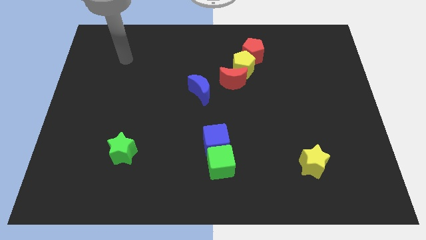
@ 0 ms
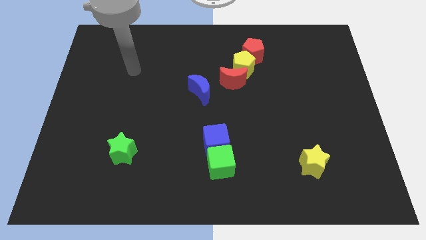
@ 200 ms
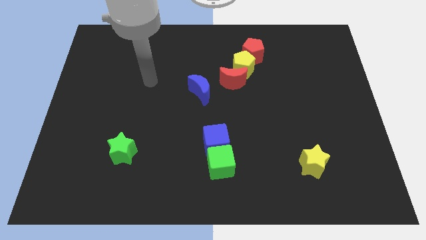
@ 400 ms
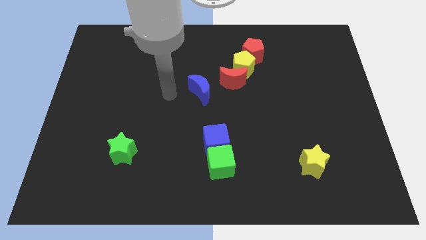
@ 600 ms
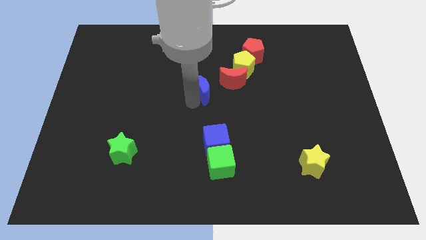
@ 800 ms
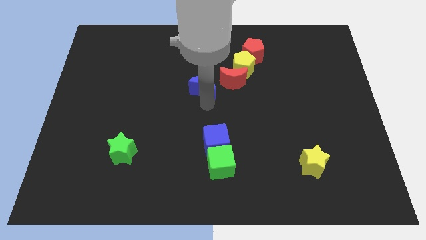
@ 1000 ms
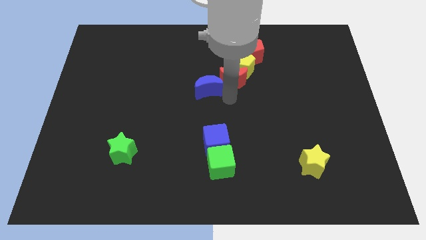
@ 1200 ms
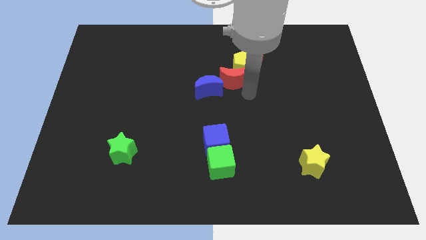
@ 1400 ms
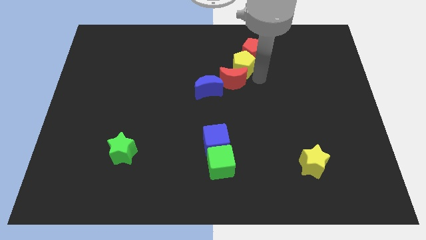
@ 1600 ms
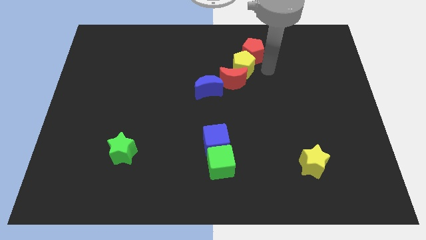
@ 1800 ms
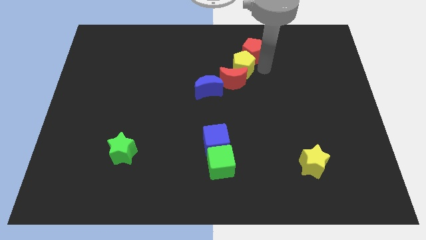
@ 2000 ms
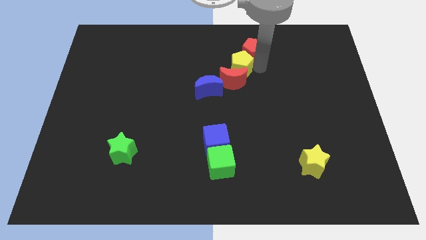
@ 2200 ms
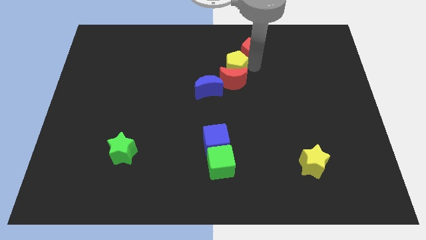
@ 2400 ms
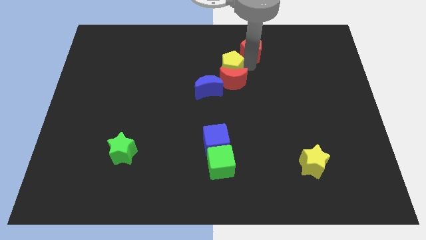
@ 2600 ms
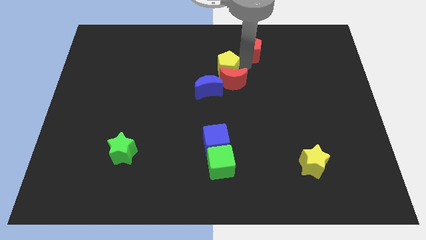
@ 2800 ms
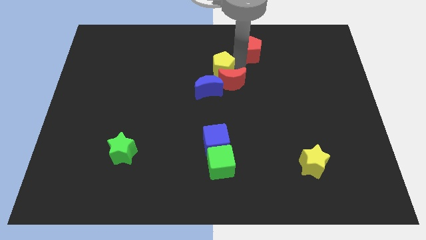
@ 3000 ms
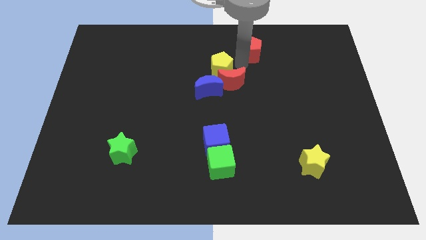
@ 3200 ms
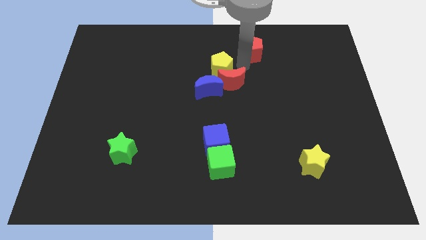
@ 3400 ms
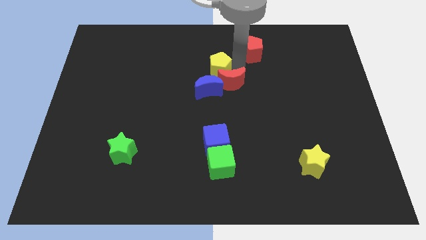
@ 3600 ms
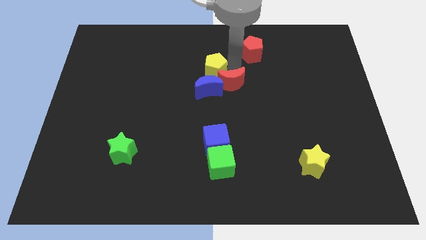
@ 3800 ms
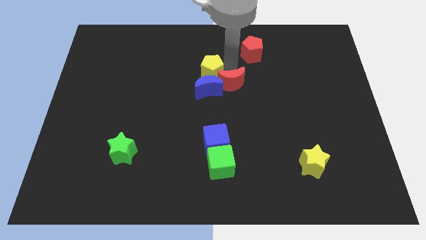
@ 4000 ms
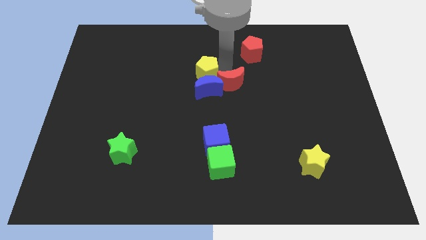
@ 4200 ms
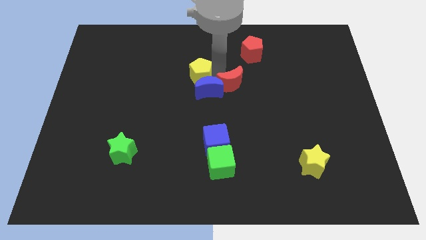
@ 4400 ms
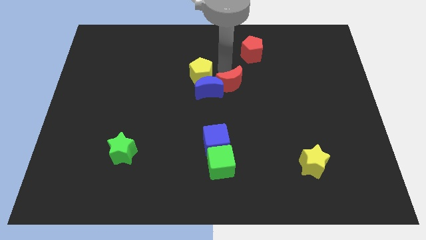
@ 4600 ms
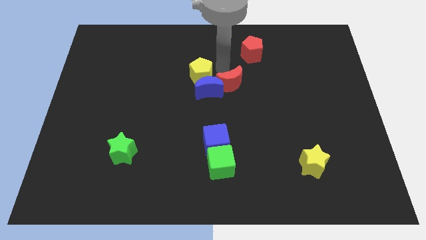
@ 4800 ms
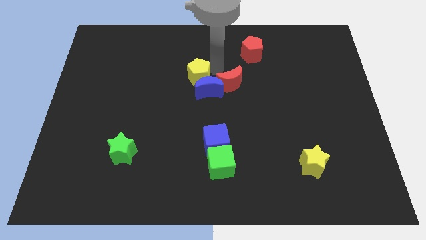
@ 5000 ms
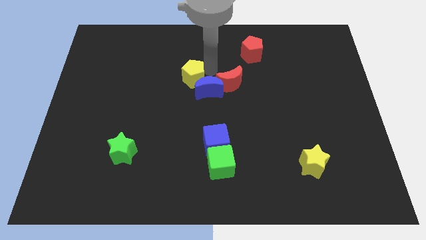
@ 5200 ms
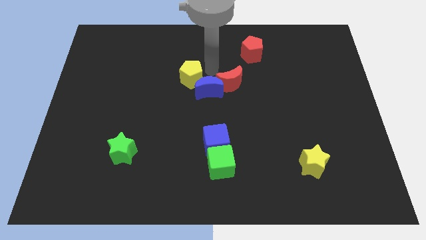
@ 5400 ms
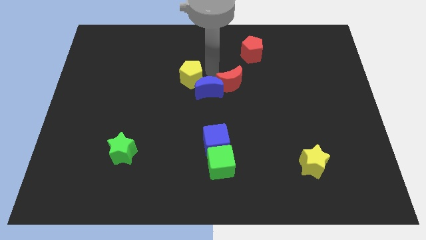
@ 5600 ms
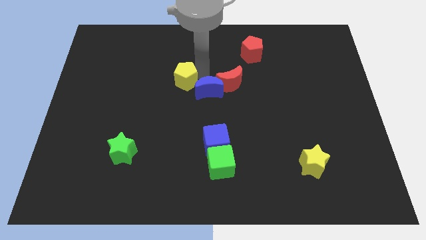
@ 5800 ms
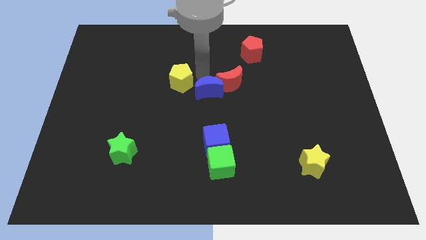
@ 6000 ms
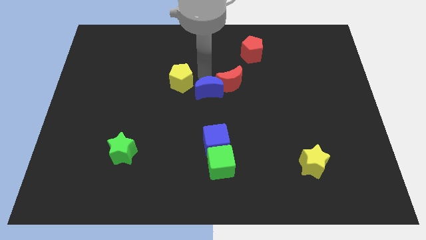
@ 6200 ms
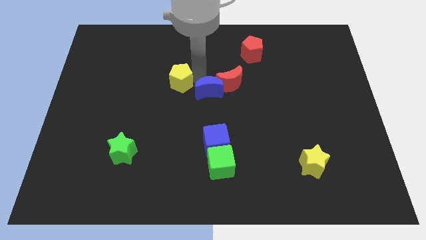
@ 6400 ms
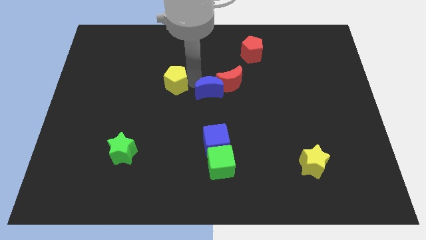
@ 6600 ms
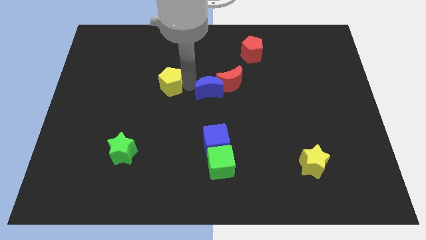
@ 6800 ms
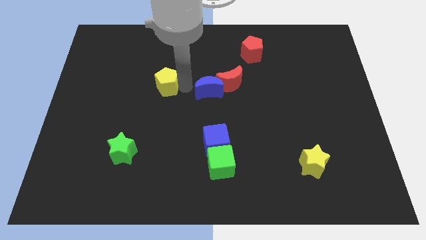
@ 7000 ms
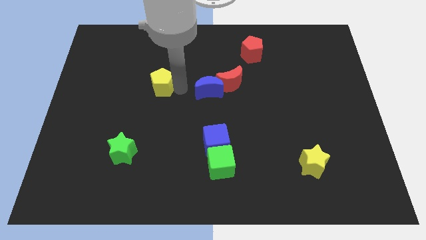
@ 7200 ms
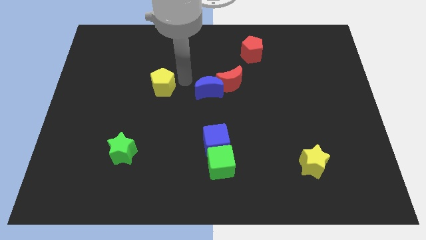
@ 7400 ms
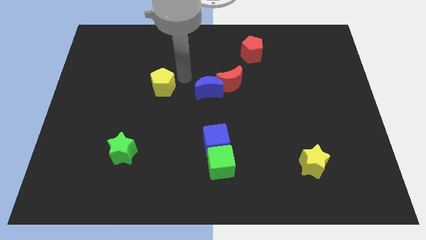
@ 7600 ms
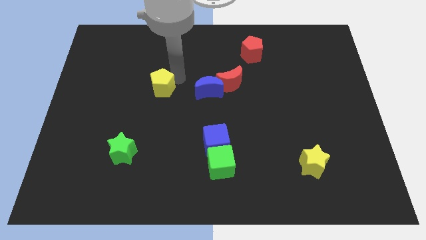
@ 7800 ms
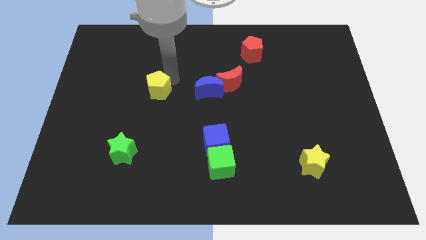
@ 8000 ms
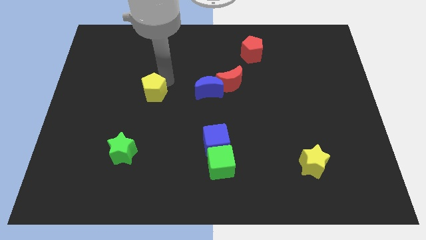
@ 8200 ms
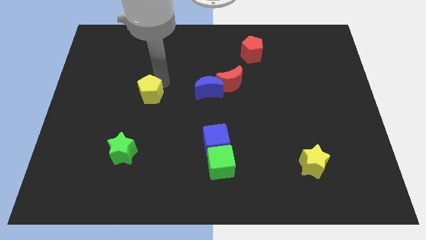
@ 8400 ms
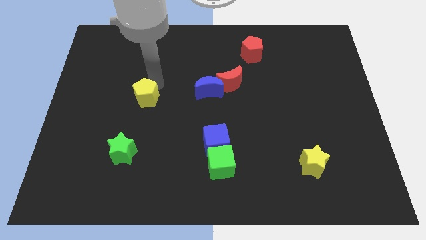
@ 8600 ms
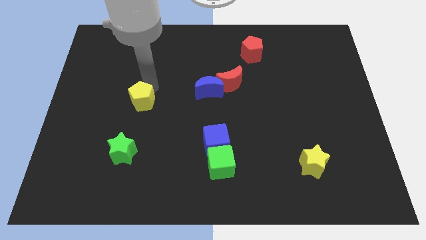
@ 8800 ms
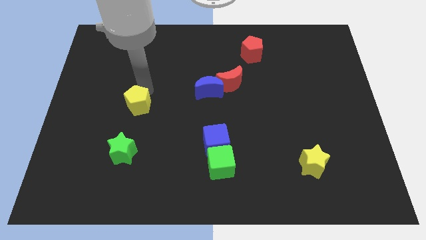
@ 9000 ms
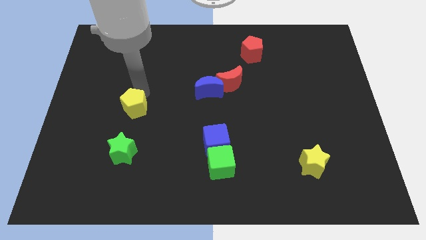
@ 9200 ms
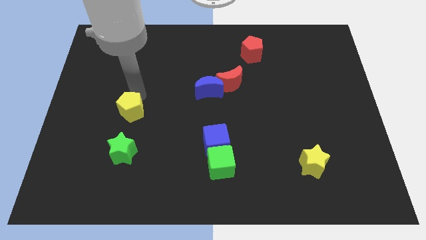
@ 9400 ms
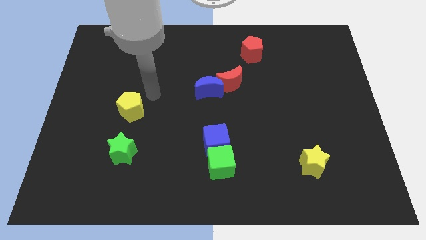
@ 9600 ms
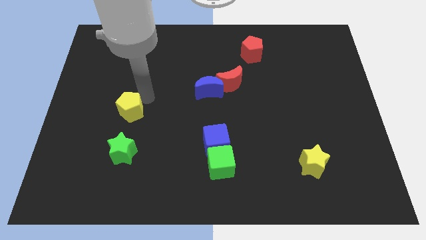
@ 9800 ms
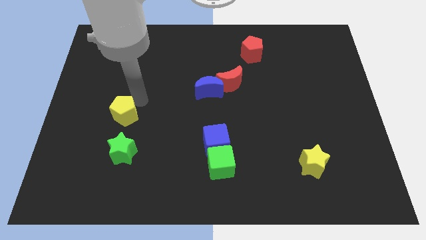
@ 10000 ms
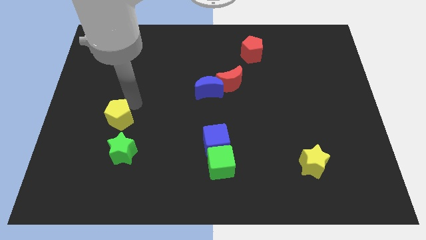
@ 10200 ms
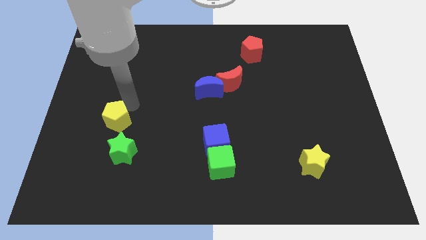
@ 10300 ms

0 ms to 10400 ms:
slide the yellow pentagon to the top left side of the green star

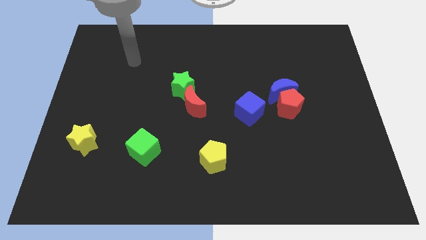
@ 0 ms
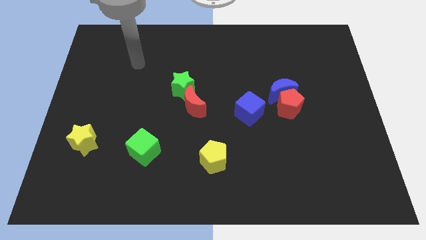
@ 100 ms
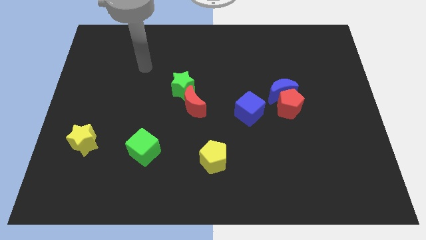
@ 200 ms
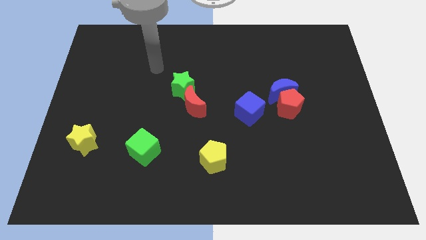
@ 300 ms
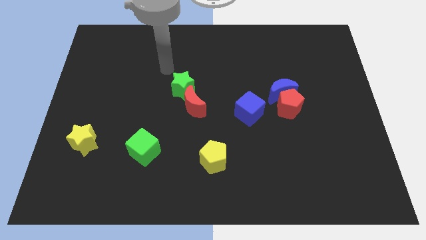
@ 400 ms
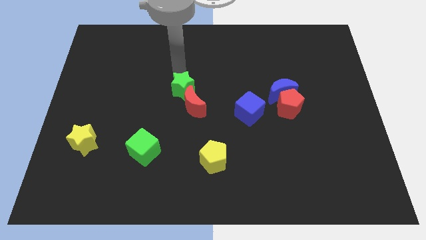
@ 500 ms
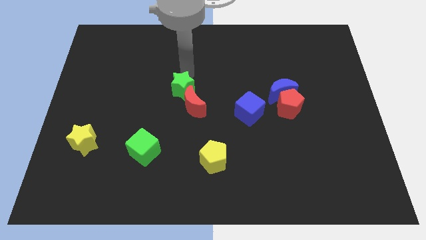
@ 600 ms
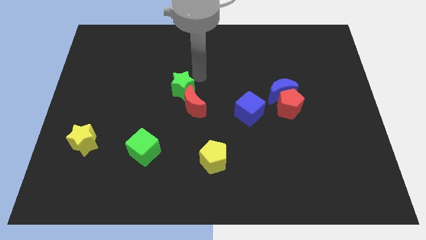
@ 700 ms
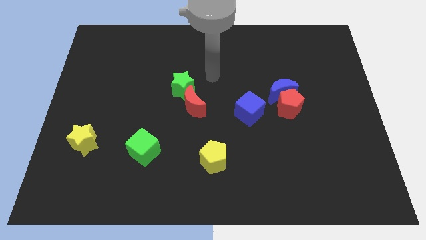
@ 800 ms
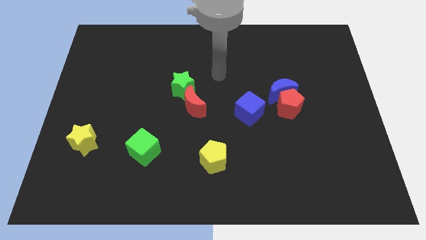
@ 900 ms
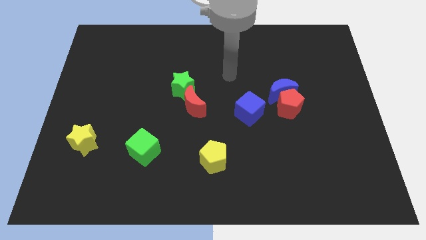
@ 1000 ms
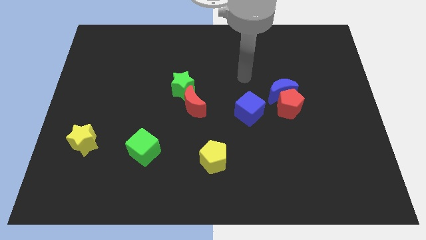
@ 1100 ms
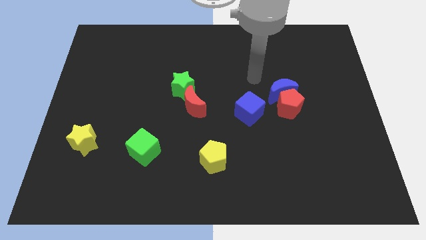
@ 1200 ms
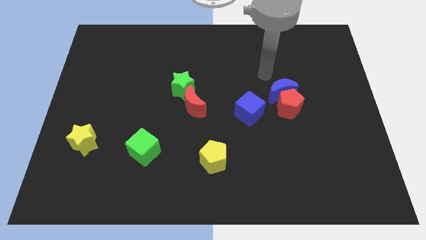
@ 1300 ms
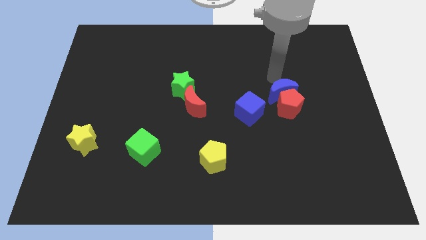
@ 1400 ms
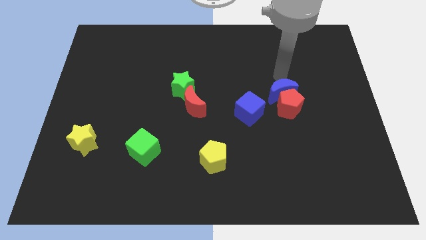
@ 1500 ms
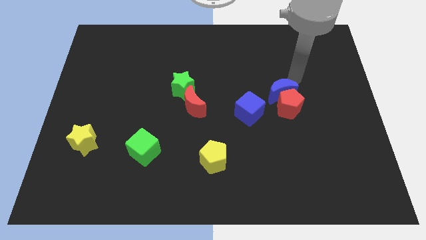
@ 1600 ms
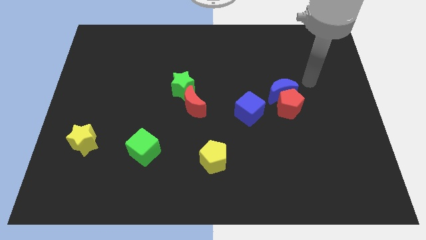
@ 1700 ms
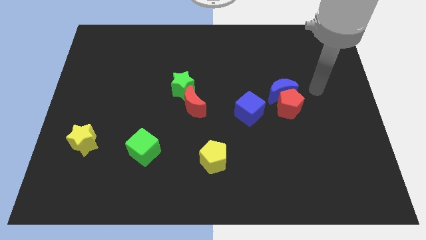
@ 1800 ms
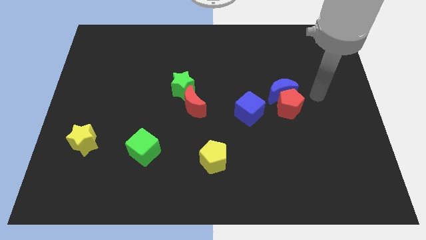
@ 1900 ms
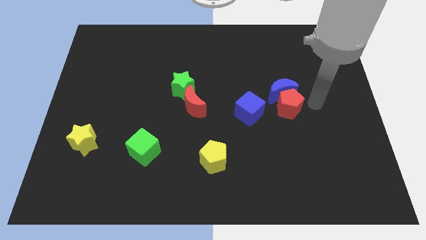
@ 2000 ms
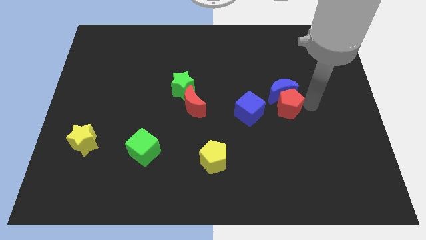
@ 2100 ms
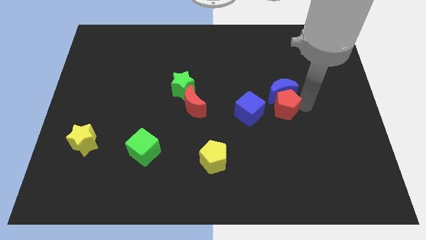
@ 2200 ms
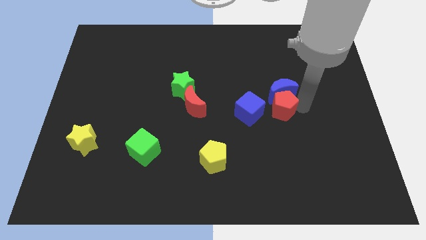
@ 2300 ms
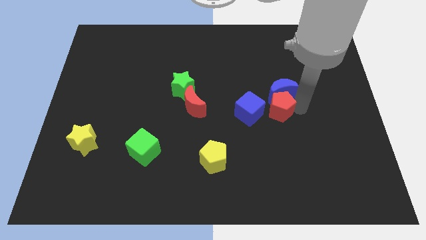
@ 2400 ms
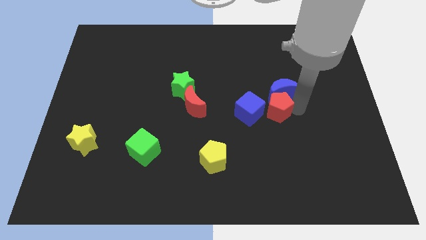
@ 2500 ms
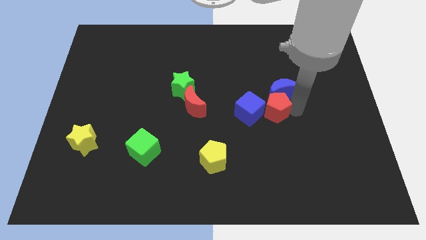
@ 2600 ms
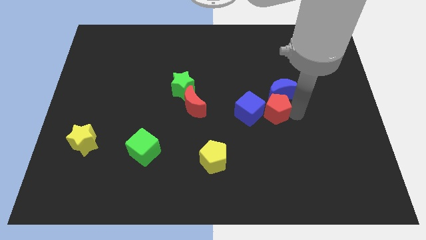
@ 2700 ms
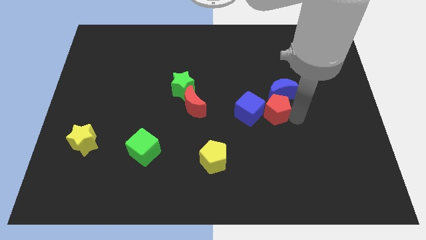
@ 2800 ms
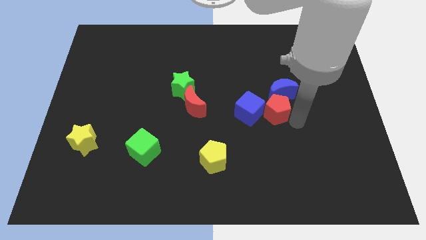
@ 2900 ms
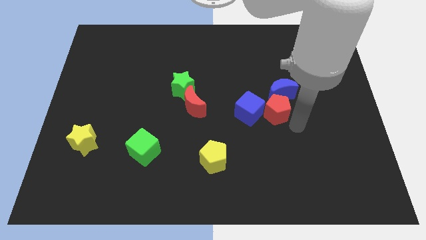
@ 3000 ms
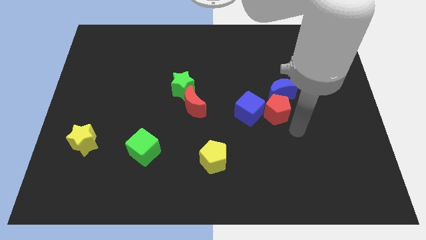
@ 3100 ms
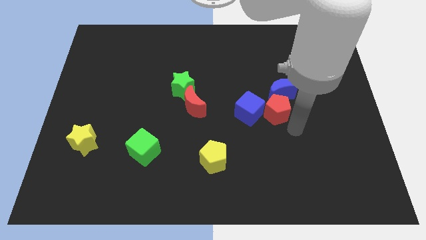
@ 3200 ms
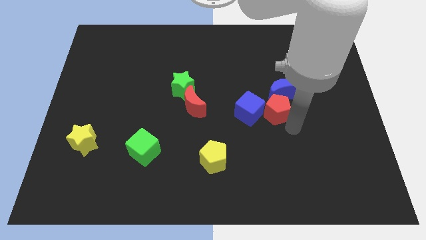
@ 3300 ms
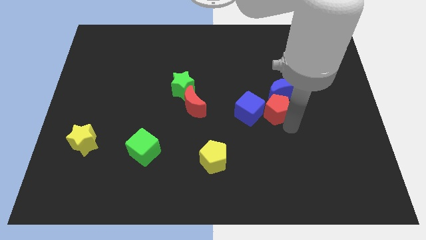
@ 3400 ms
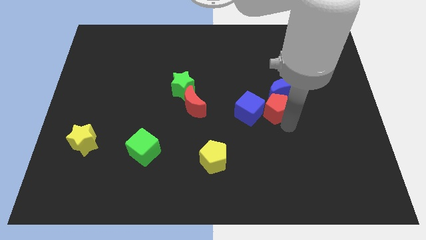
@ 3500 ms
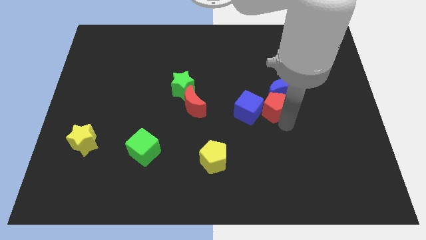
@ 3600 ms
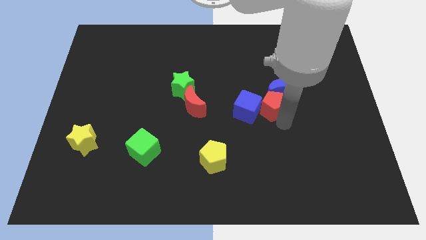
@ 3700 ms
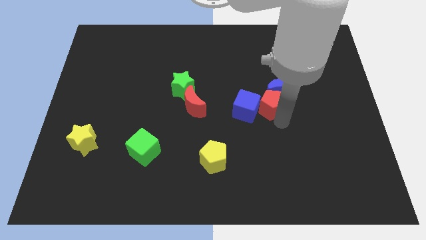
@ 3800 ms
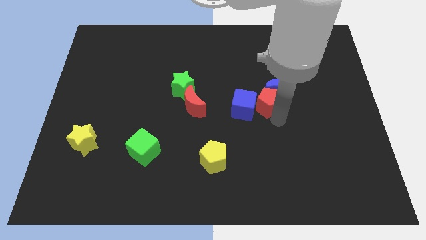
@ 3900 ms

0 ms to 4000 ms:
push the red pentagon left of the blue moon
